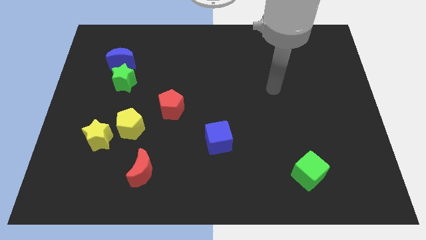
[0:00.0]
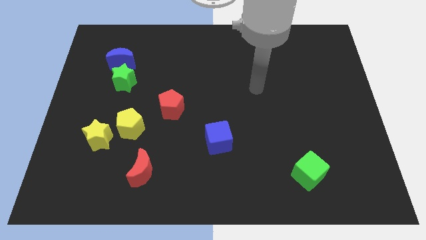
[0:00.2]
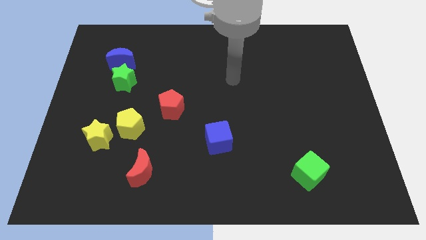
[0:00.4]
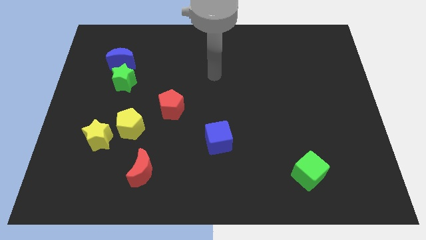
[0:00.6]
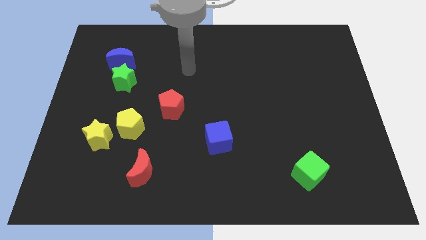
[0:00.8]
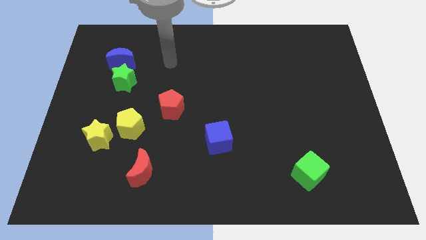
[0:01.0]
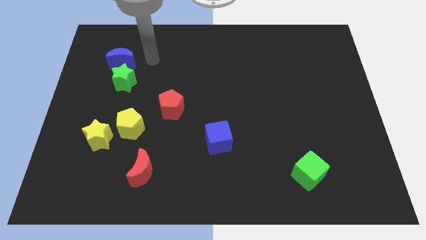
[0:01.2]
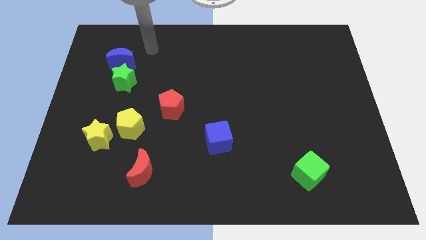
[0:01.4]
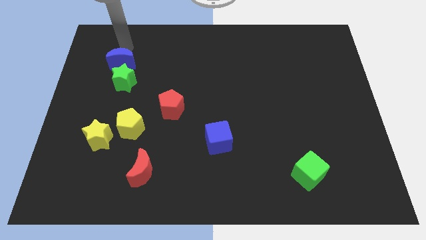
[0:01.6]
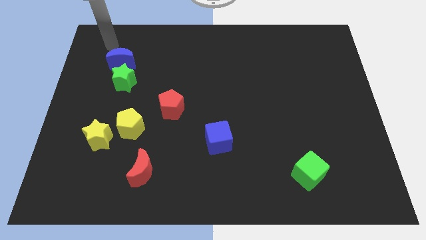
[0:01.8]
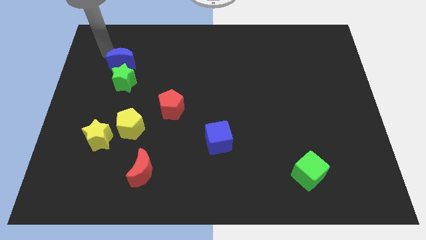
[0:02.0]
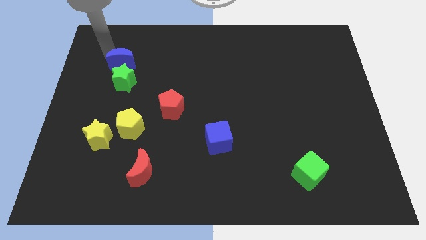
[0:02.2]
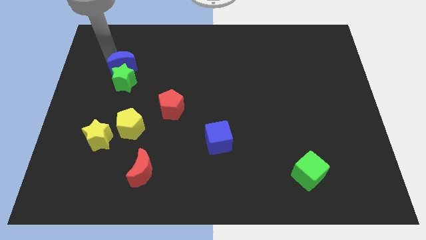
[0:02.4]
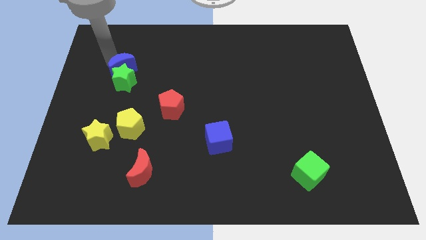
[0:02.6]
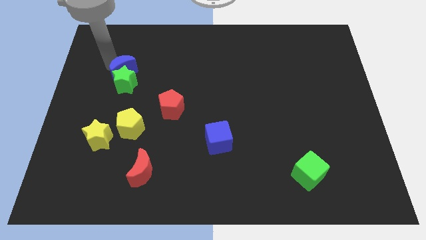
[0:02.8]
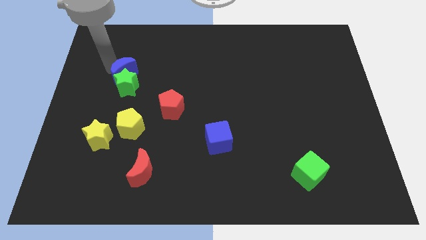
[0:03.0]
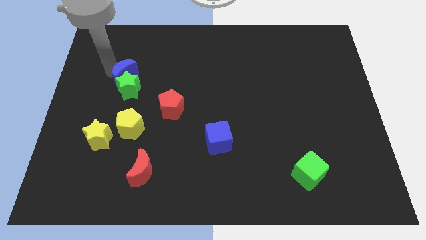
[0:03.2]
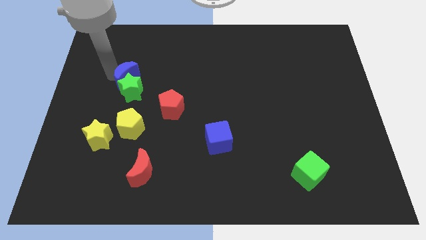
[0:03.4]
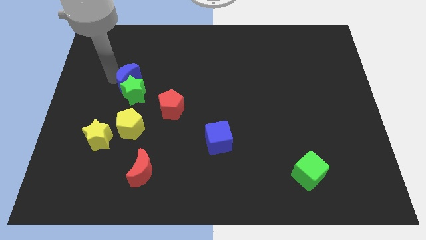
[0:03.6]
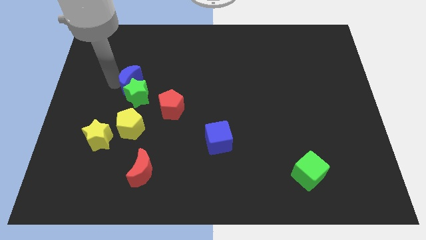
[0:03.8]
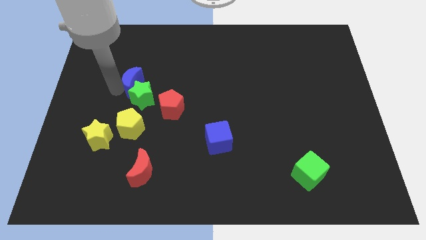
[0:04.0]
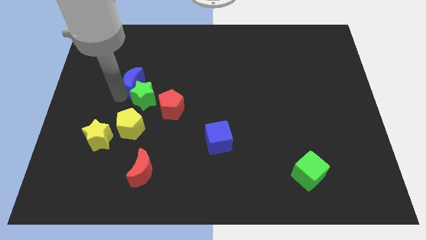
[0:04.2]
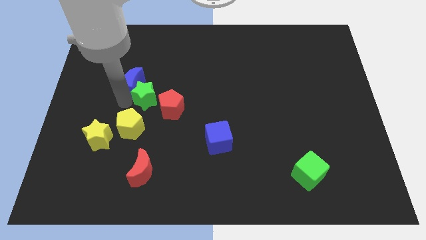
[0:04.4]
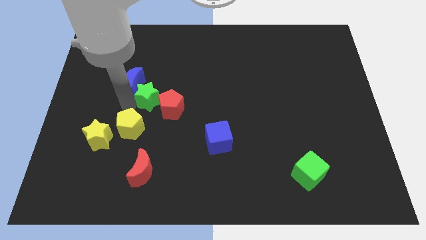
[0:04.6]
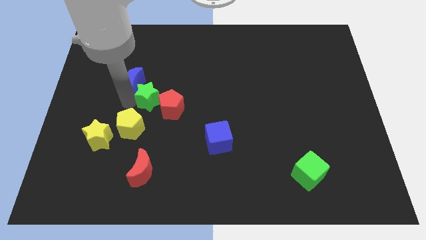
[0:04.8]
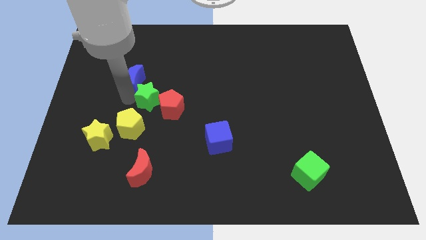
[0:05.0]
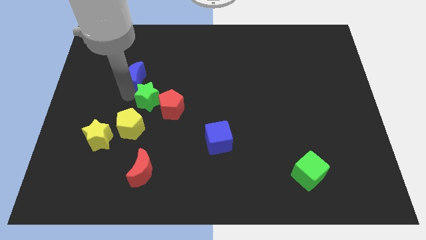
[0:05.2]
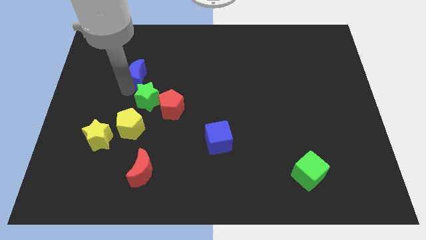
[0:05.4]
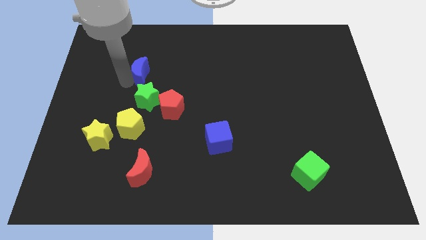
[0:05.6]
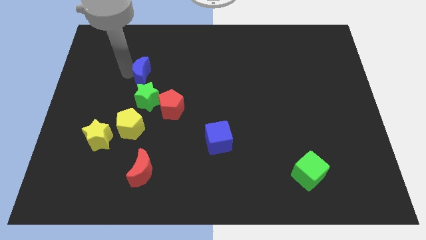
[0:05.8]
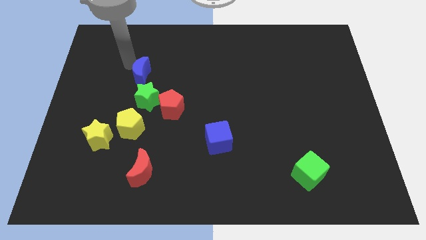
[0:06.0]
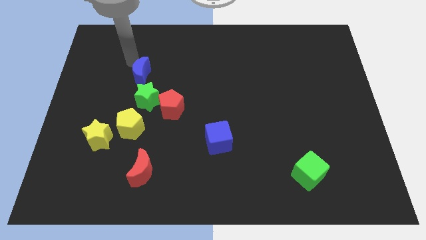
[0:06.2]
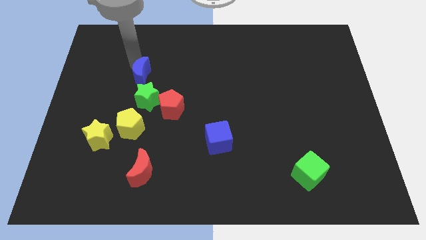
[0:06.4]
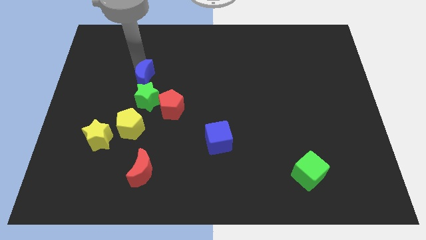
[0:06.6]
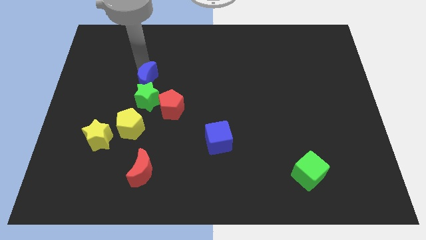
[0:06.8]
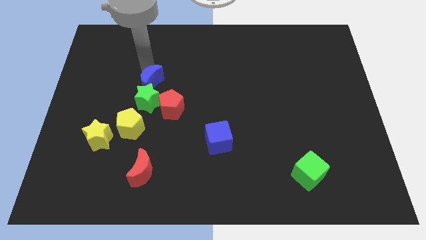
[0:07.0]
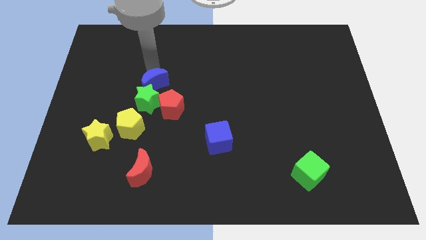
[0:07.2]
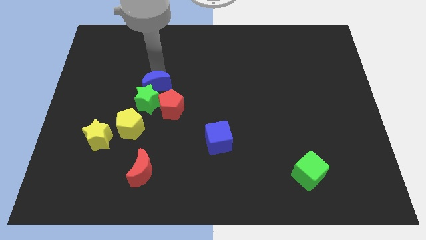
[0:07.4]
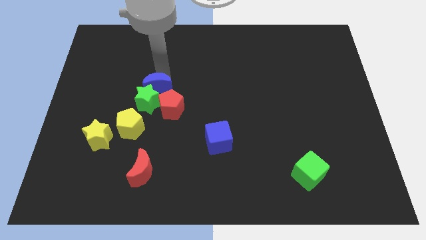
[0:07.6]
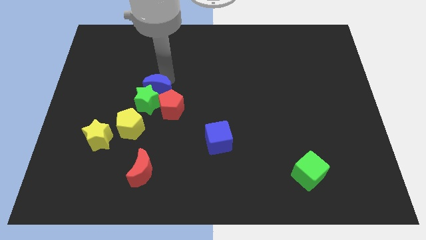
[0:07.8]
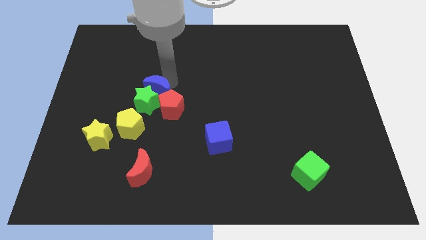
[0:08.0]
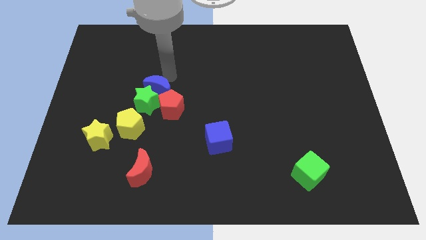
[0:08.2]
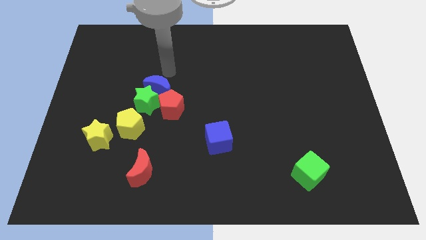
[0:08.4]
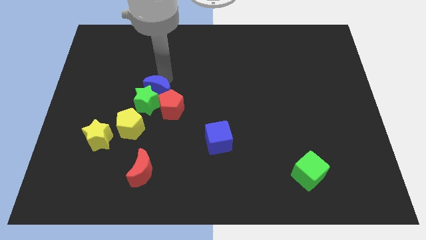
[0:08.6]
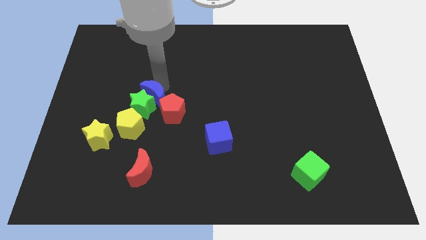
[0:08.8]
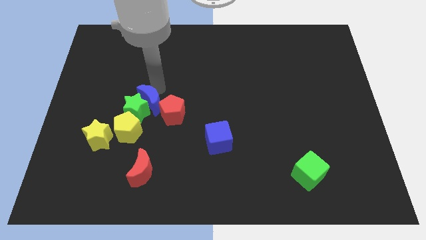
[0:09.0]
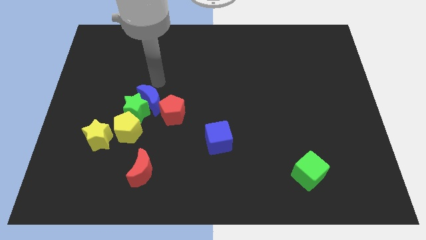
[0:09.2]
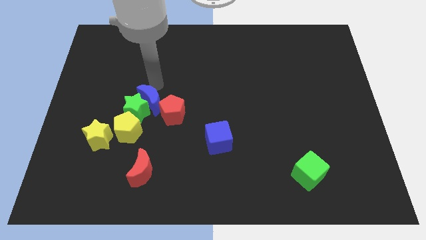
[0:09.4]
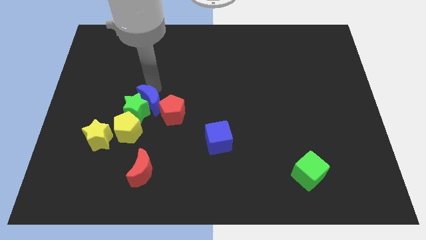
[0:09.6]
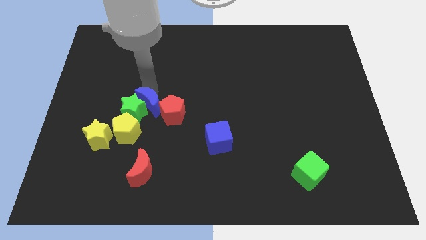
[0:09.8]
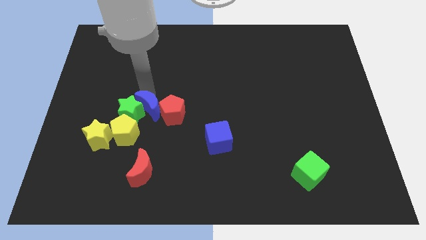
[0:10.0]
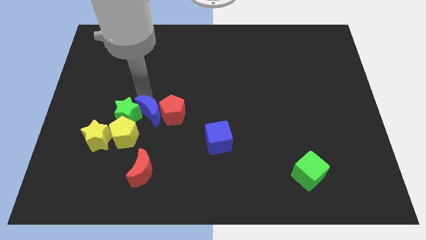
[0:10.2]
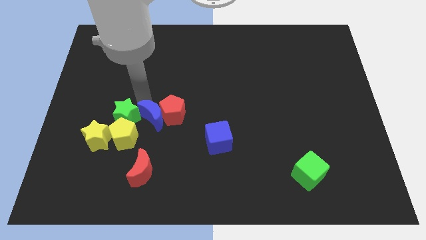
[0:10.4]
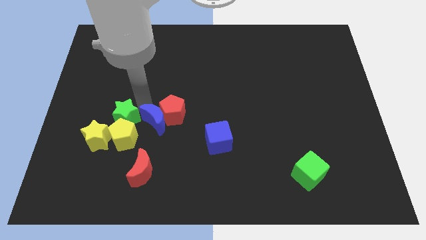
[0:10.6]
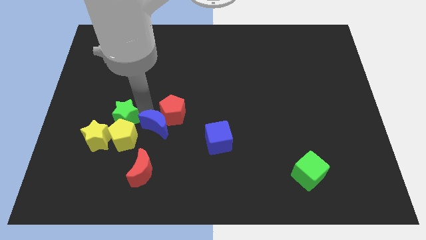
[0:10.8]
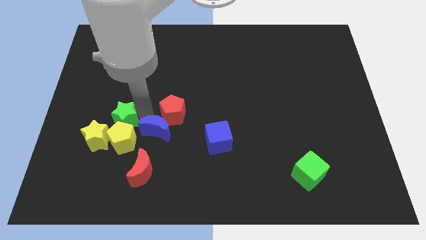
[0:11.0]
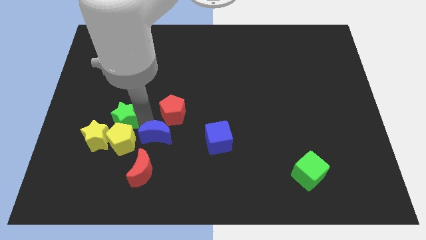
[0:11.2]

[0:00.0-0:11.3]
put the blue moon to the top right of the red moon

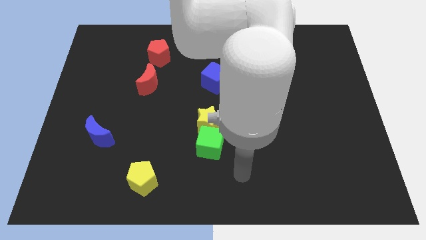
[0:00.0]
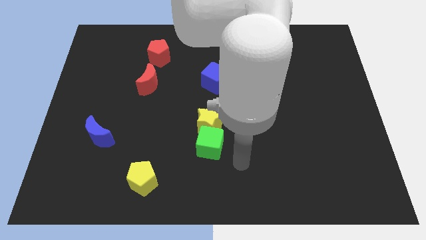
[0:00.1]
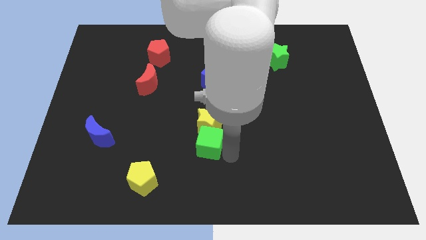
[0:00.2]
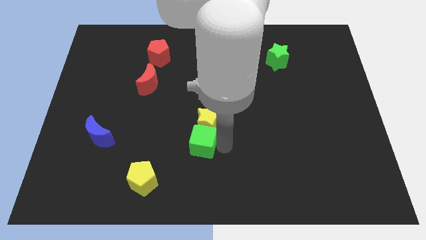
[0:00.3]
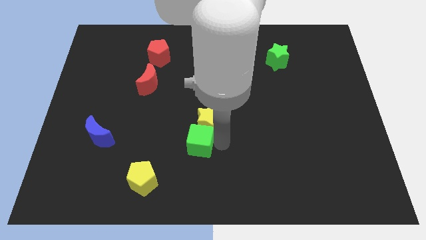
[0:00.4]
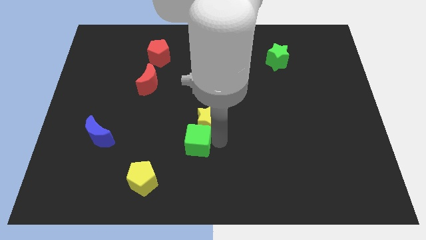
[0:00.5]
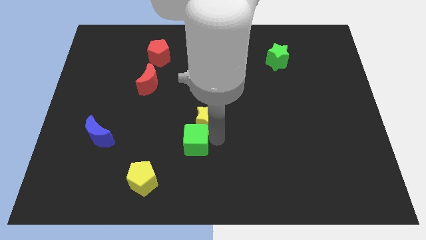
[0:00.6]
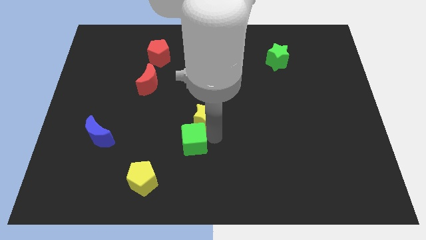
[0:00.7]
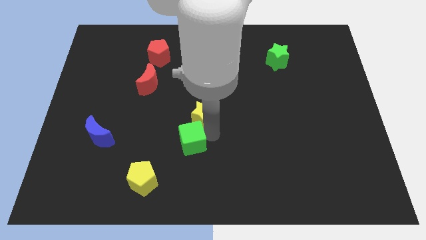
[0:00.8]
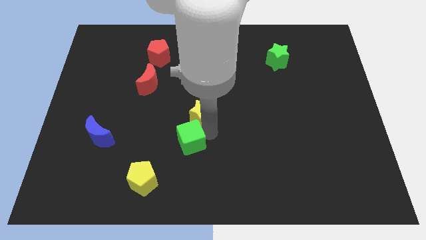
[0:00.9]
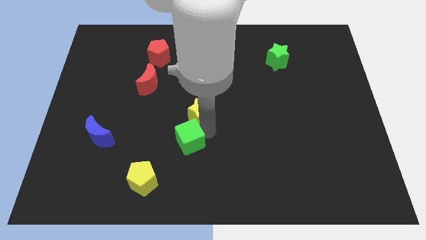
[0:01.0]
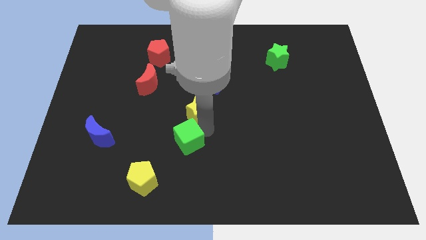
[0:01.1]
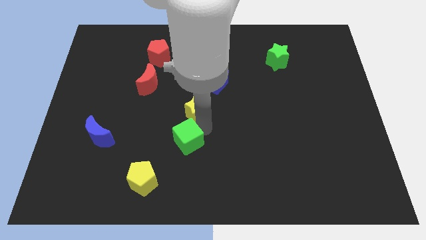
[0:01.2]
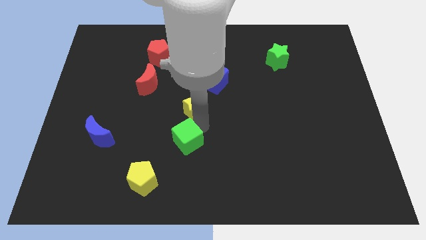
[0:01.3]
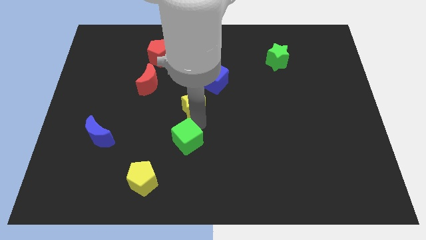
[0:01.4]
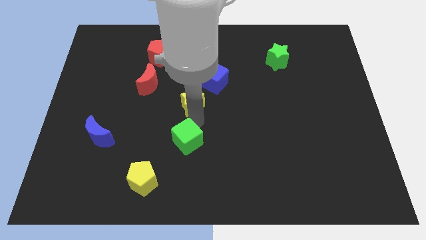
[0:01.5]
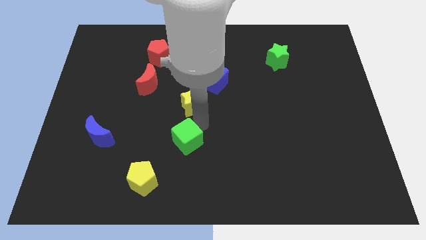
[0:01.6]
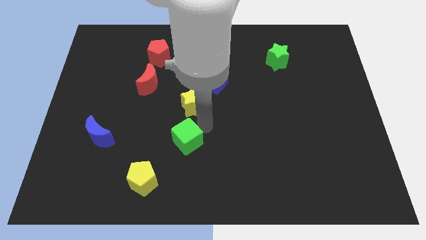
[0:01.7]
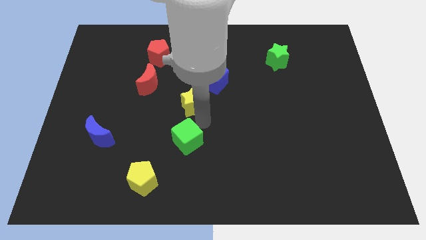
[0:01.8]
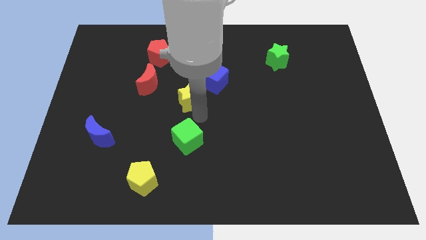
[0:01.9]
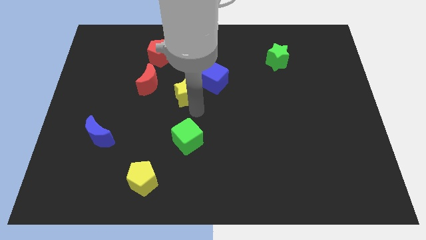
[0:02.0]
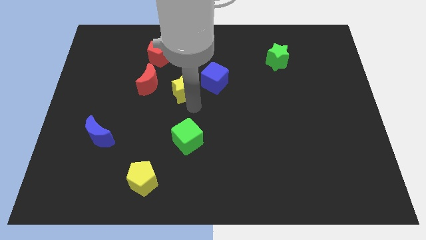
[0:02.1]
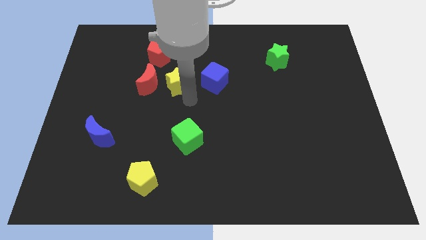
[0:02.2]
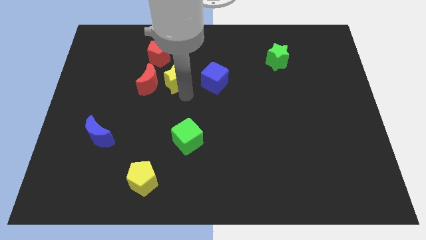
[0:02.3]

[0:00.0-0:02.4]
push the yellow star diagonally up and to the right of the red moon
